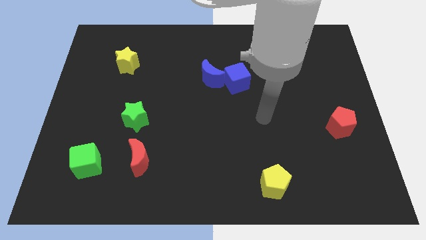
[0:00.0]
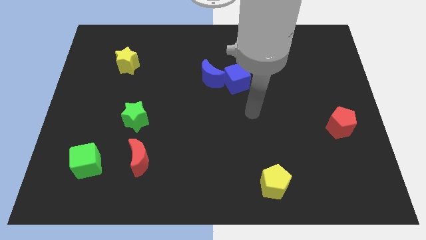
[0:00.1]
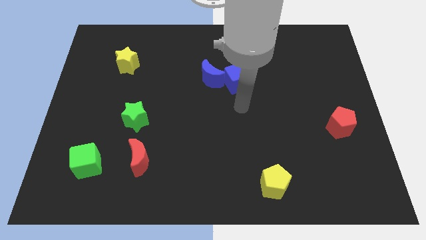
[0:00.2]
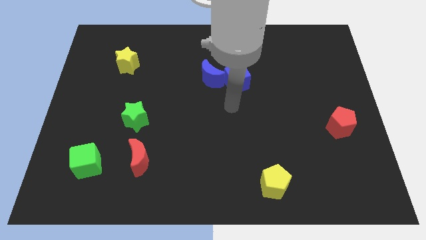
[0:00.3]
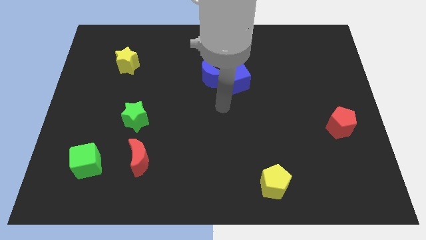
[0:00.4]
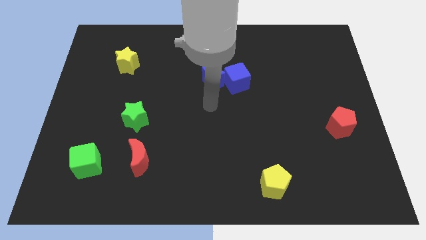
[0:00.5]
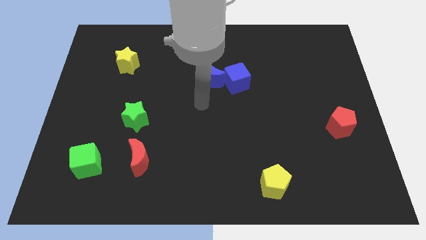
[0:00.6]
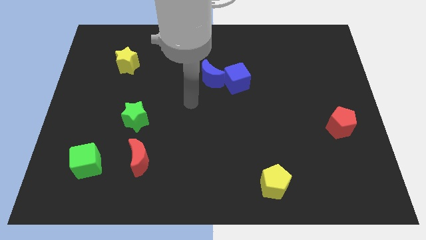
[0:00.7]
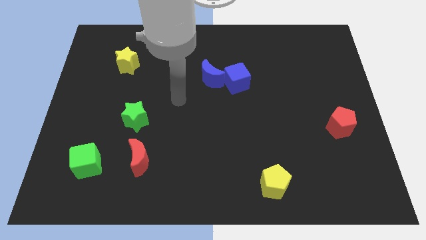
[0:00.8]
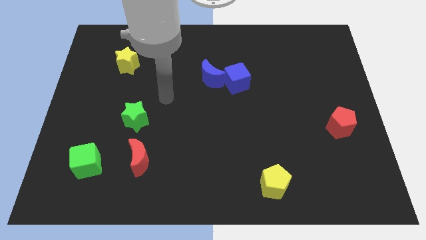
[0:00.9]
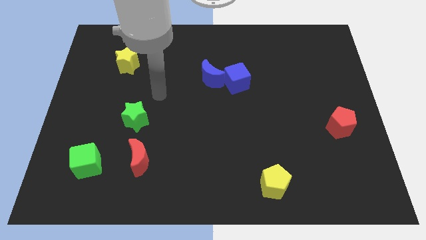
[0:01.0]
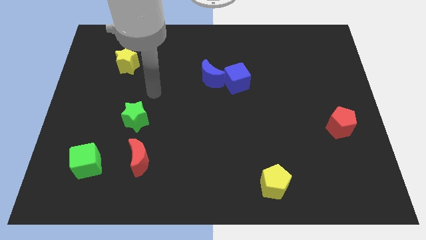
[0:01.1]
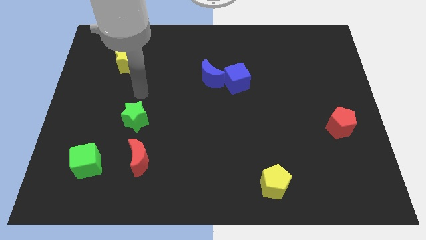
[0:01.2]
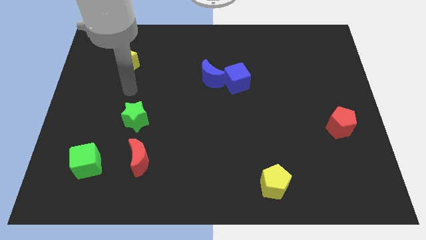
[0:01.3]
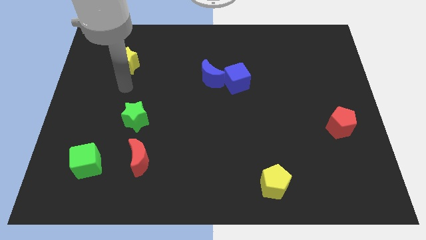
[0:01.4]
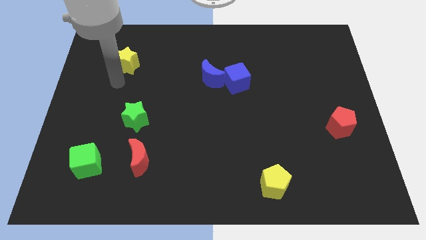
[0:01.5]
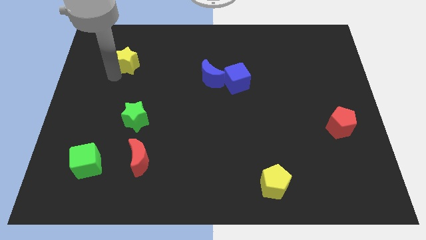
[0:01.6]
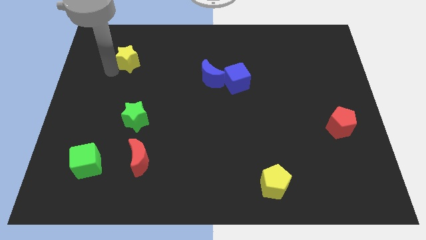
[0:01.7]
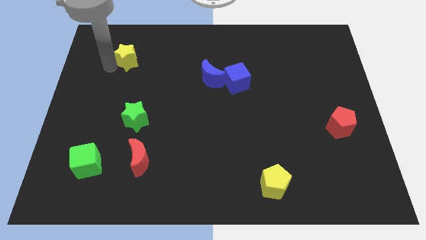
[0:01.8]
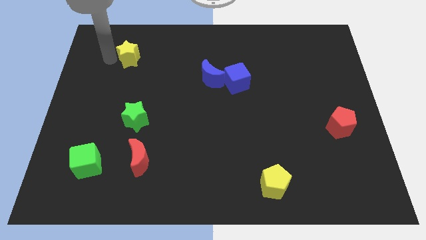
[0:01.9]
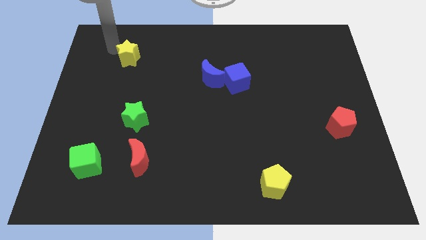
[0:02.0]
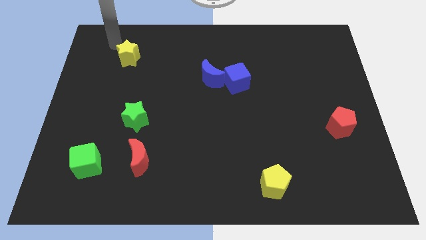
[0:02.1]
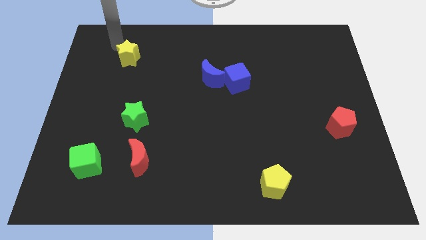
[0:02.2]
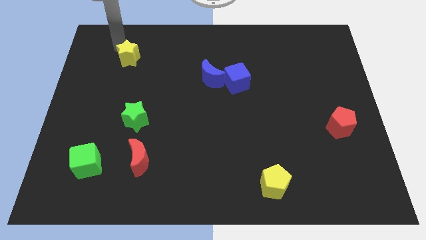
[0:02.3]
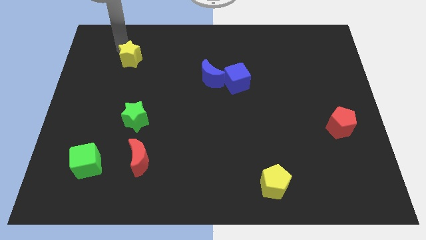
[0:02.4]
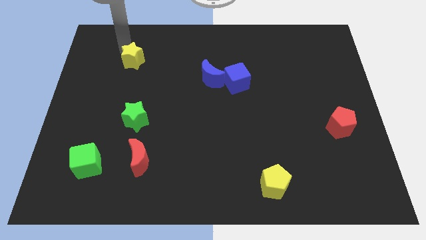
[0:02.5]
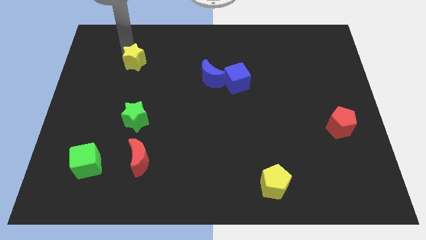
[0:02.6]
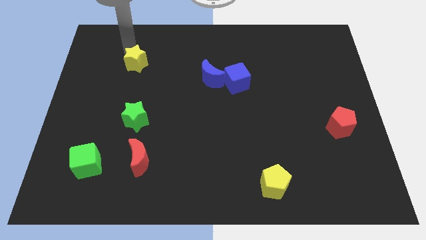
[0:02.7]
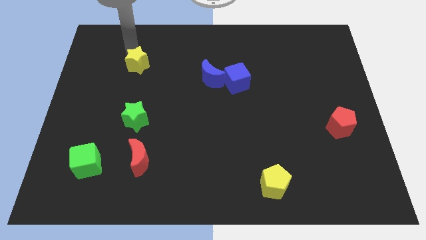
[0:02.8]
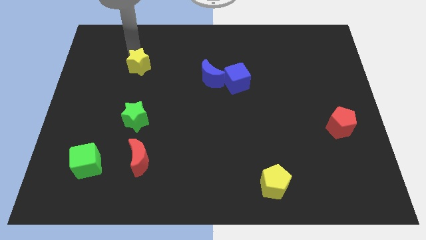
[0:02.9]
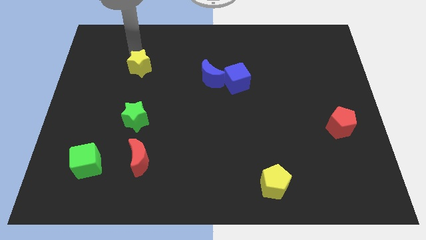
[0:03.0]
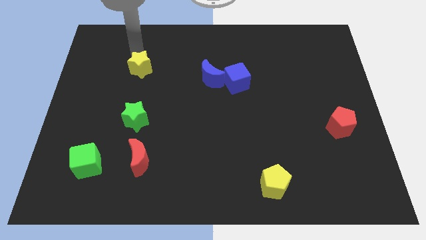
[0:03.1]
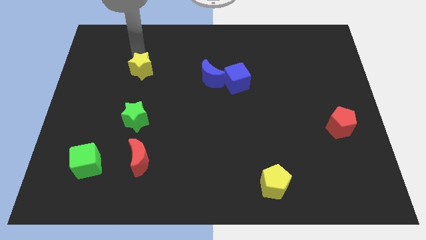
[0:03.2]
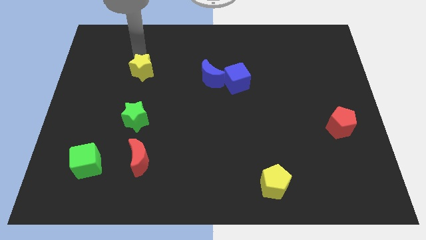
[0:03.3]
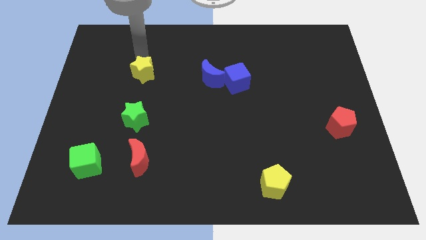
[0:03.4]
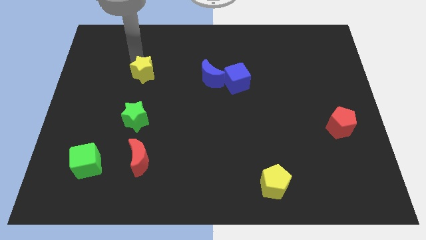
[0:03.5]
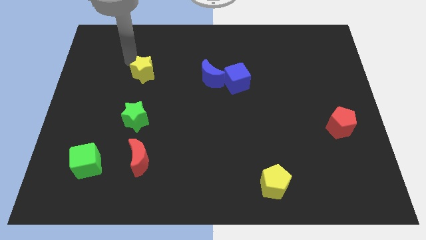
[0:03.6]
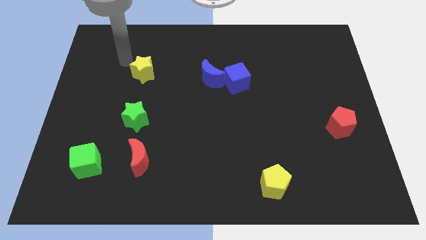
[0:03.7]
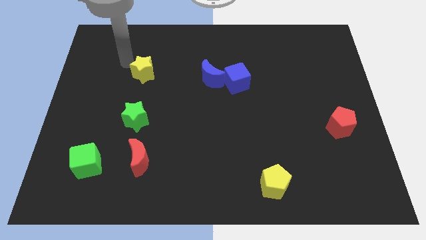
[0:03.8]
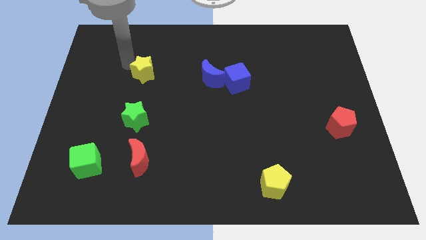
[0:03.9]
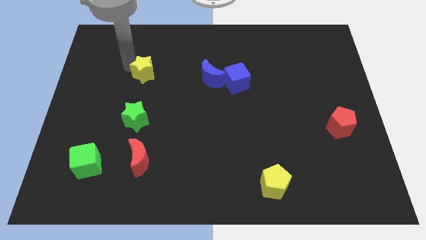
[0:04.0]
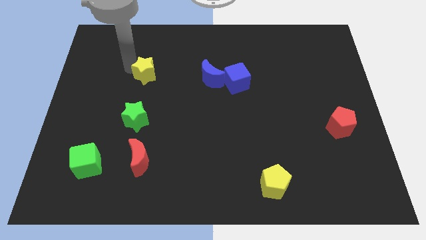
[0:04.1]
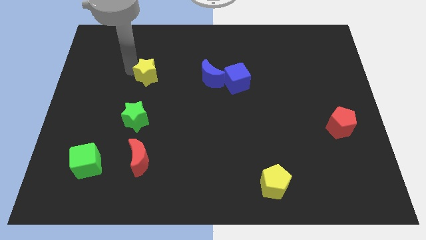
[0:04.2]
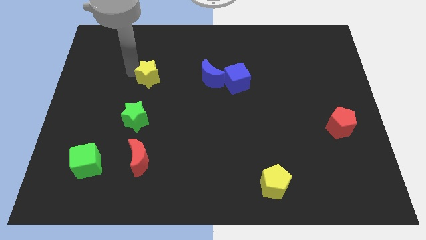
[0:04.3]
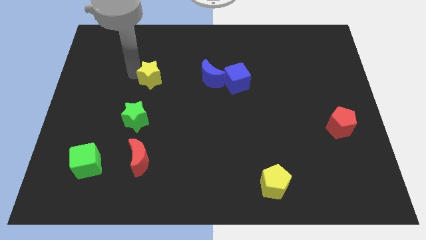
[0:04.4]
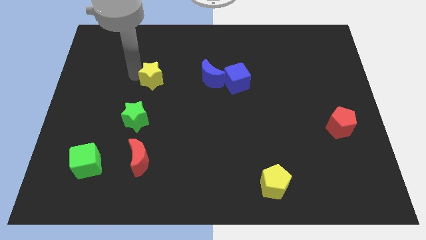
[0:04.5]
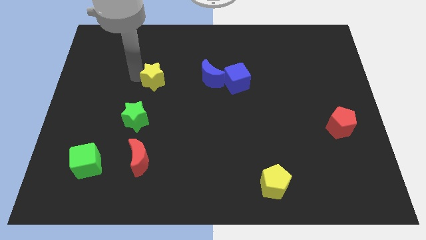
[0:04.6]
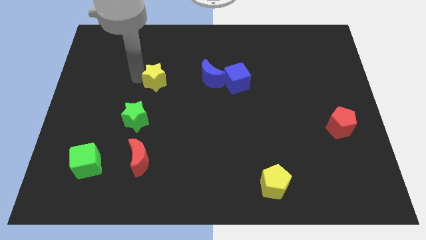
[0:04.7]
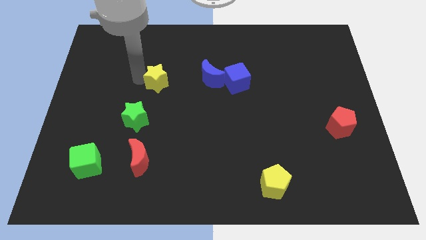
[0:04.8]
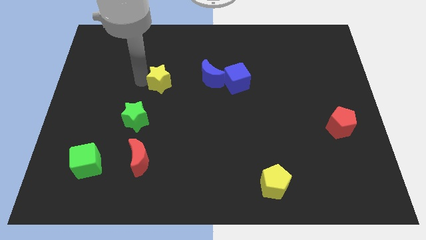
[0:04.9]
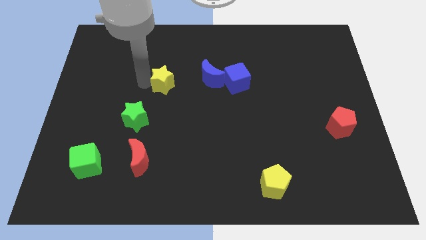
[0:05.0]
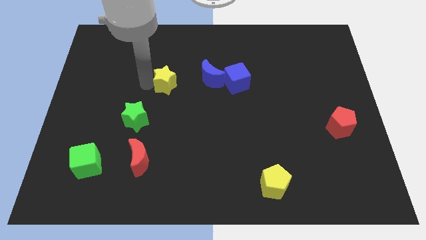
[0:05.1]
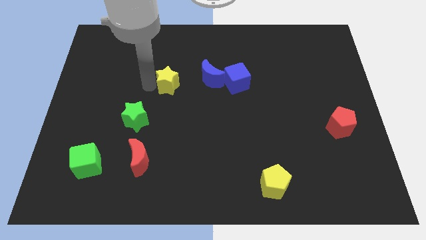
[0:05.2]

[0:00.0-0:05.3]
push the yellow star to the middle of the board

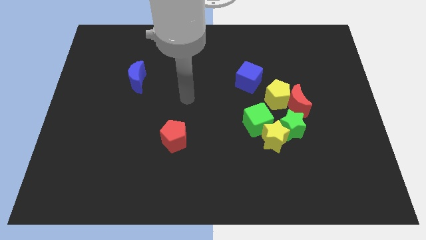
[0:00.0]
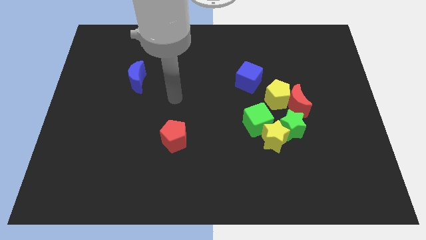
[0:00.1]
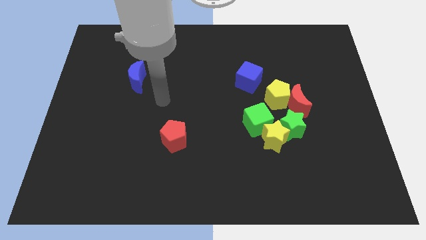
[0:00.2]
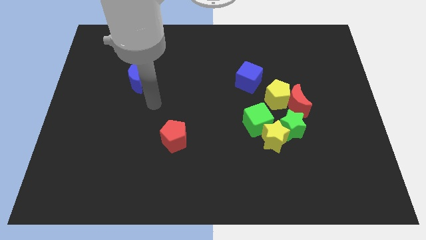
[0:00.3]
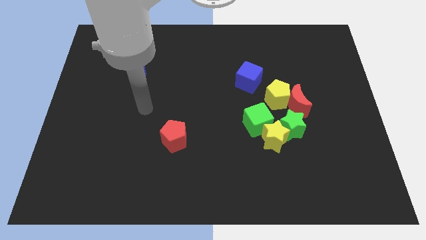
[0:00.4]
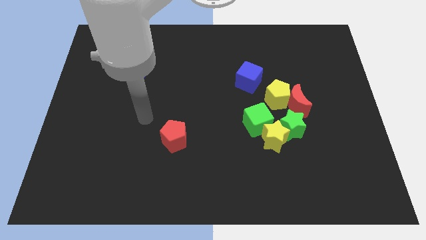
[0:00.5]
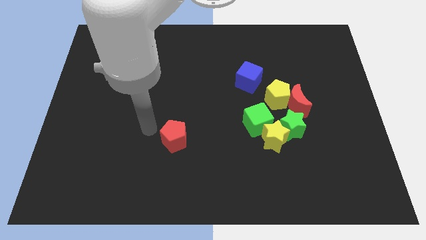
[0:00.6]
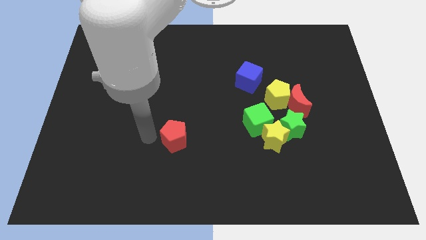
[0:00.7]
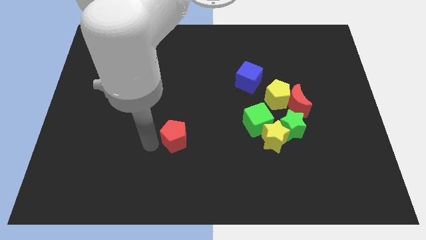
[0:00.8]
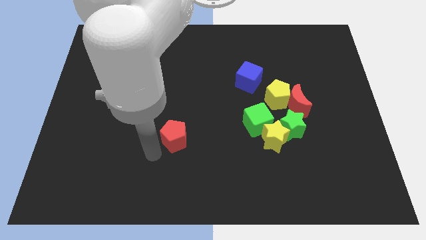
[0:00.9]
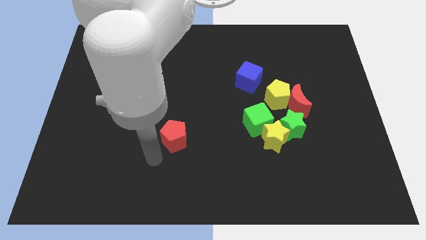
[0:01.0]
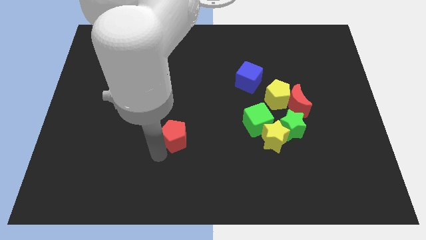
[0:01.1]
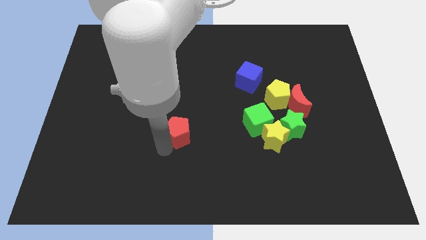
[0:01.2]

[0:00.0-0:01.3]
push the red pentagon to the middle of the board
